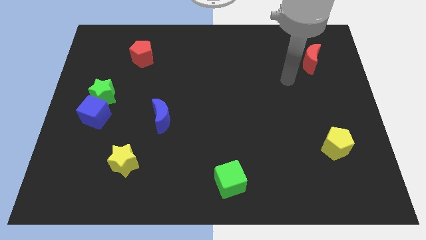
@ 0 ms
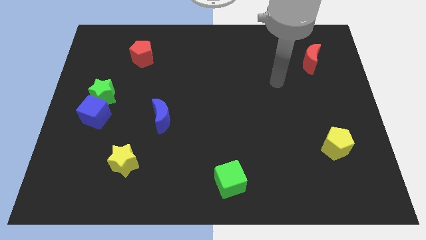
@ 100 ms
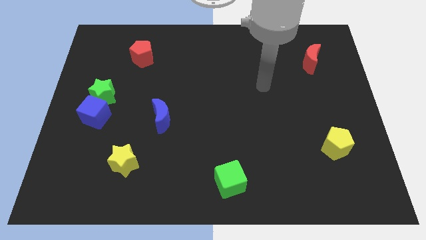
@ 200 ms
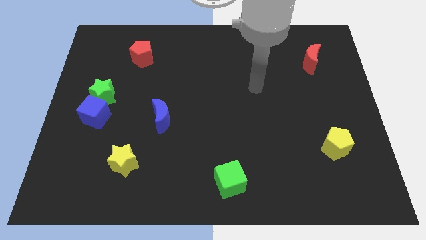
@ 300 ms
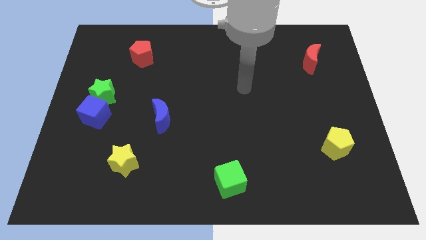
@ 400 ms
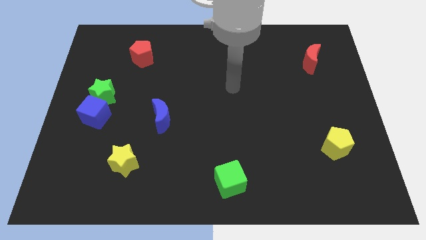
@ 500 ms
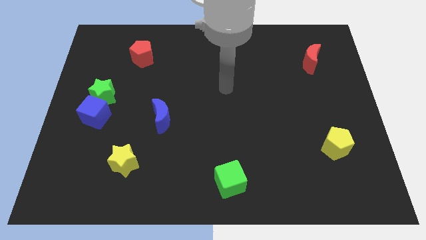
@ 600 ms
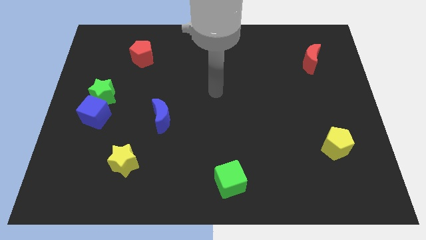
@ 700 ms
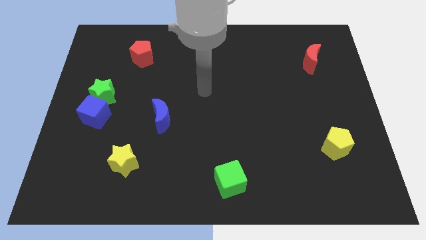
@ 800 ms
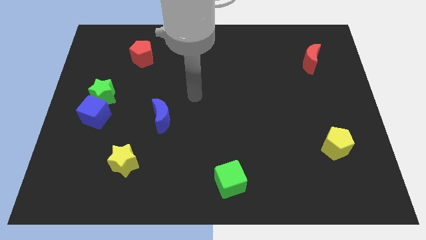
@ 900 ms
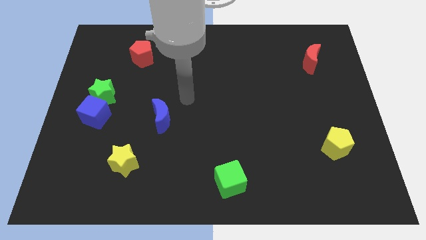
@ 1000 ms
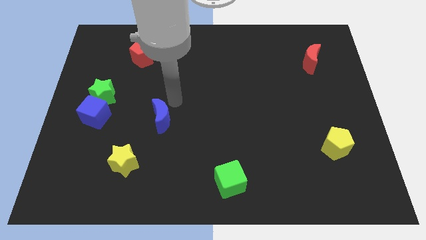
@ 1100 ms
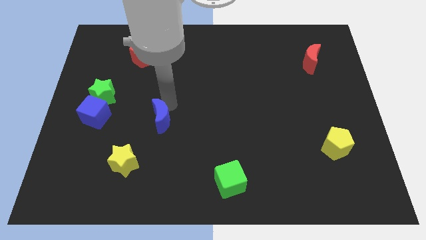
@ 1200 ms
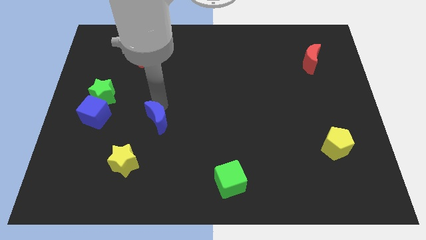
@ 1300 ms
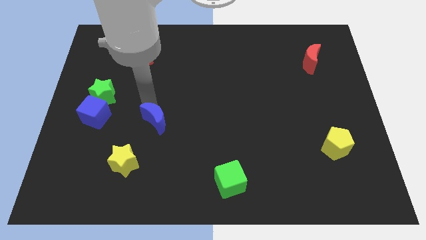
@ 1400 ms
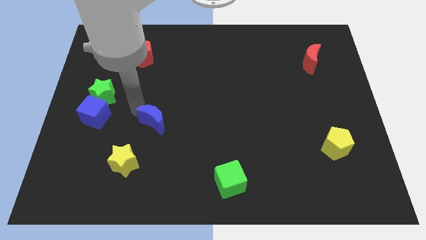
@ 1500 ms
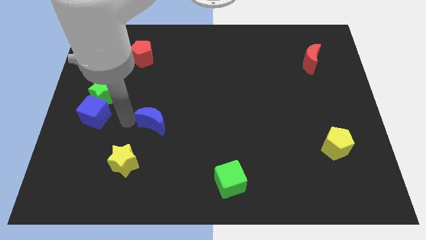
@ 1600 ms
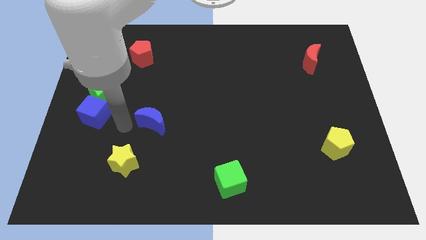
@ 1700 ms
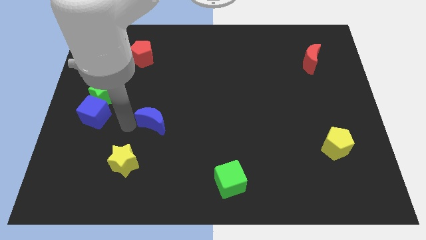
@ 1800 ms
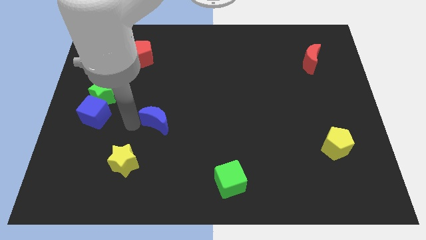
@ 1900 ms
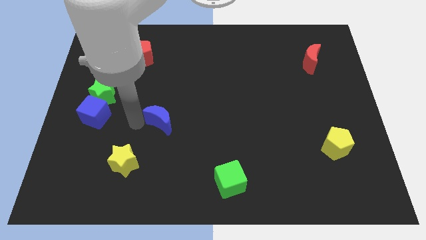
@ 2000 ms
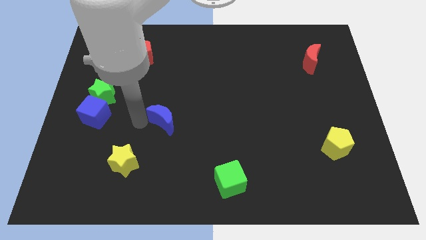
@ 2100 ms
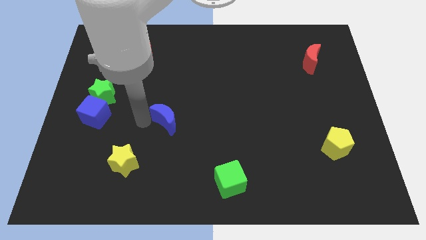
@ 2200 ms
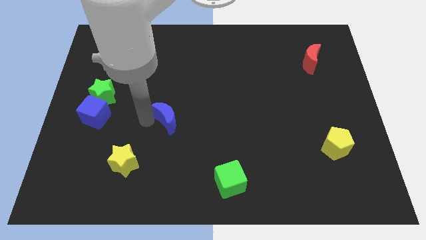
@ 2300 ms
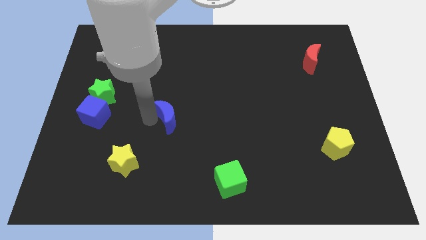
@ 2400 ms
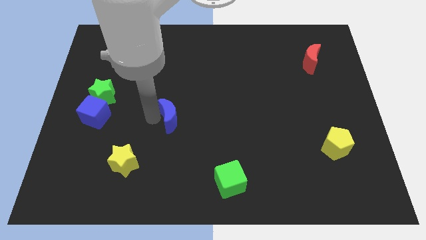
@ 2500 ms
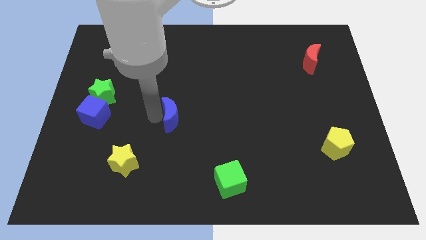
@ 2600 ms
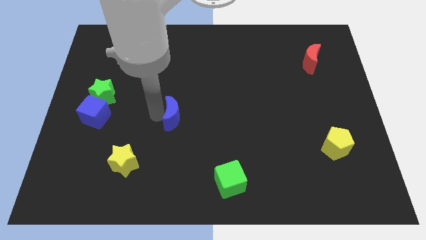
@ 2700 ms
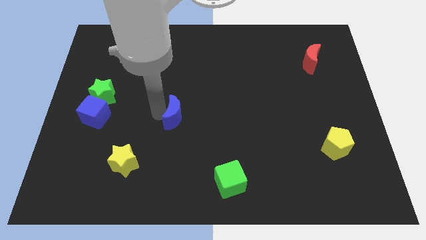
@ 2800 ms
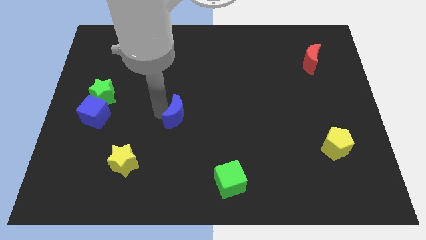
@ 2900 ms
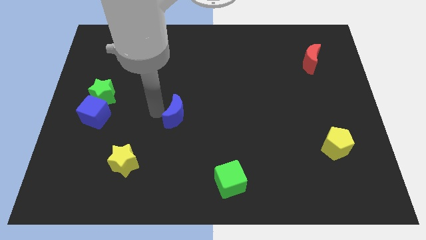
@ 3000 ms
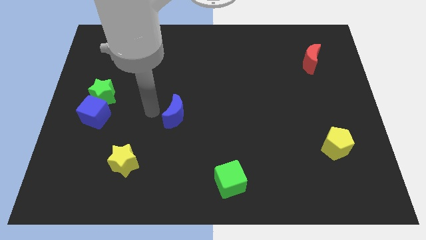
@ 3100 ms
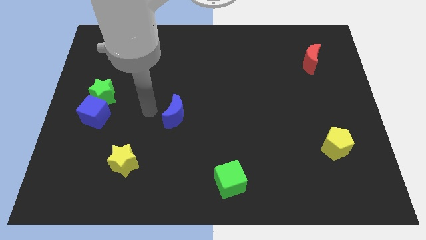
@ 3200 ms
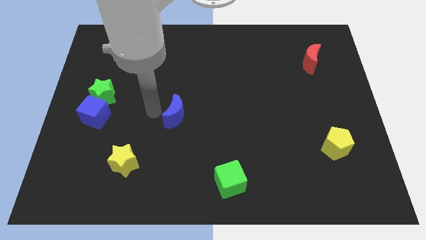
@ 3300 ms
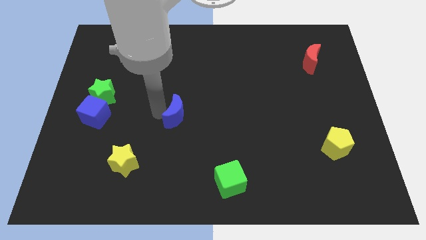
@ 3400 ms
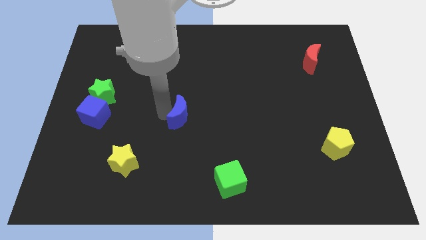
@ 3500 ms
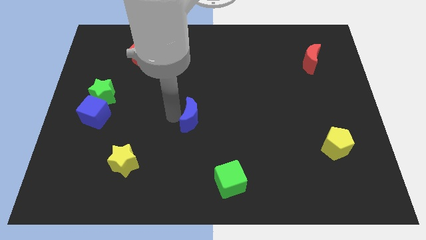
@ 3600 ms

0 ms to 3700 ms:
slightly slide the blue moon to the right

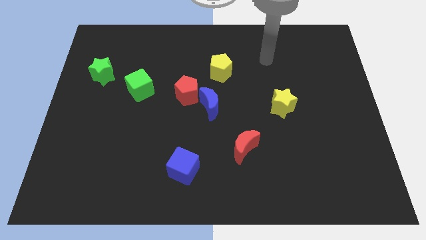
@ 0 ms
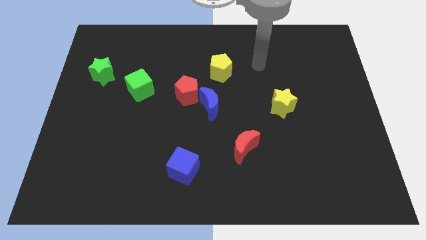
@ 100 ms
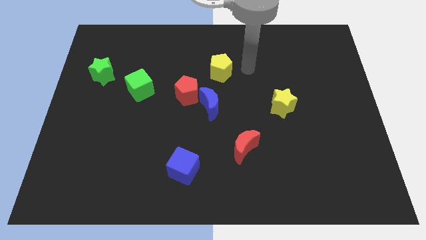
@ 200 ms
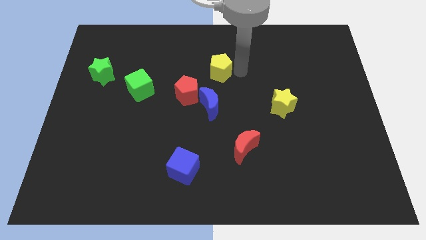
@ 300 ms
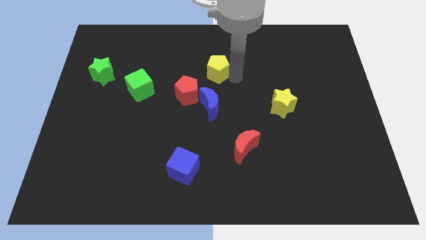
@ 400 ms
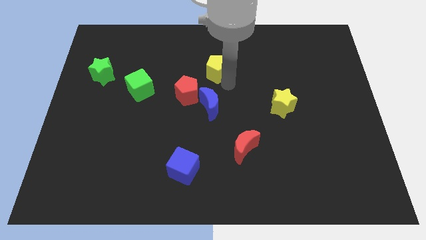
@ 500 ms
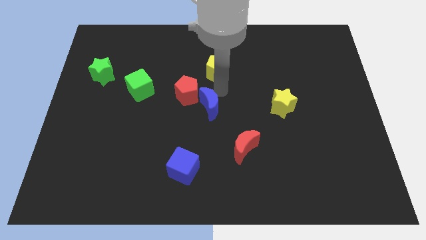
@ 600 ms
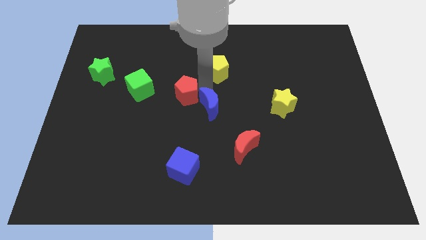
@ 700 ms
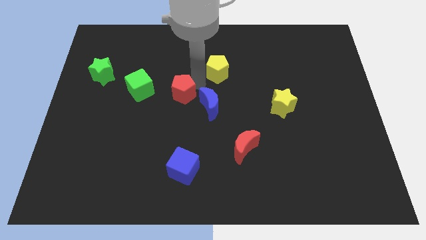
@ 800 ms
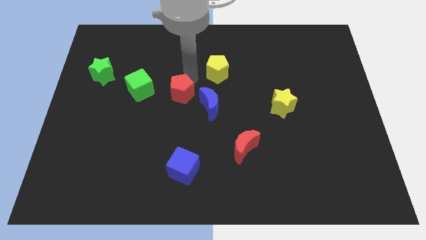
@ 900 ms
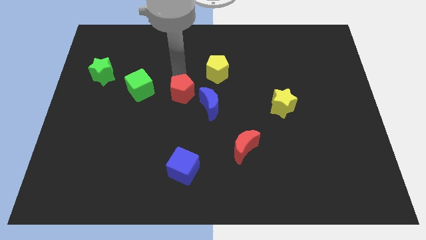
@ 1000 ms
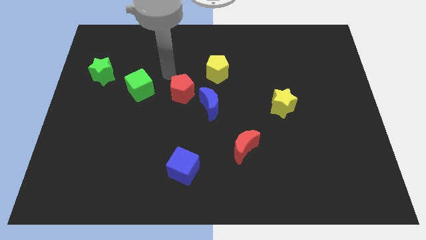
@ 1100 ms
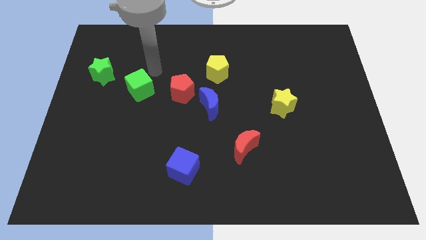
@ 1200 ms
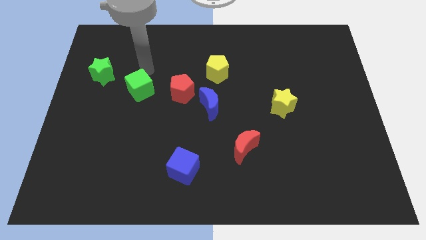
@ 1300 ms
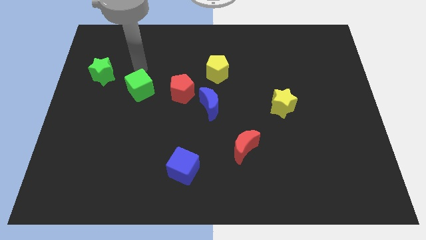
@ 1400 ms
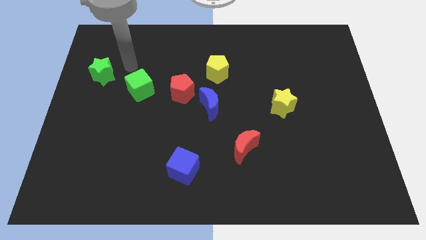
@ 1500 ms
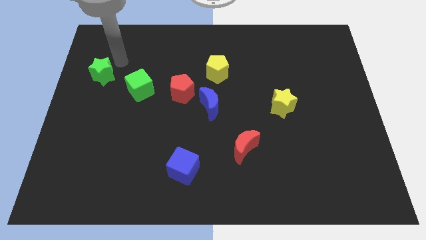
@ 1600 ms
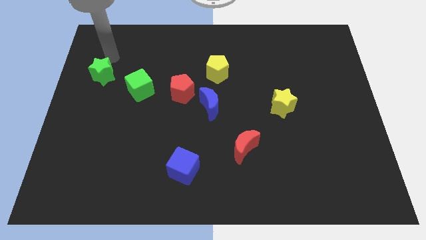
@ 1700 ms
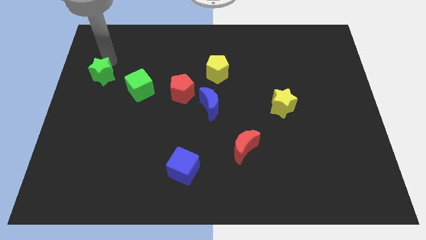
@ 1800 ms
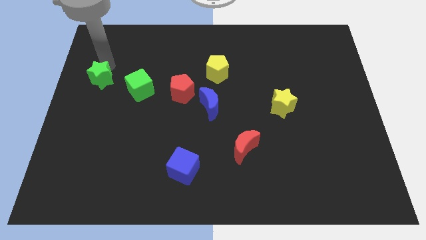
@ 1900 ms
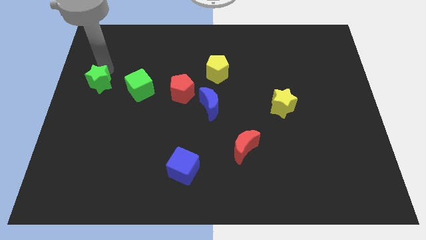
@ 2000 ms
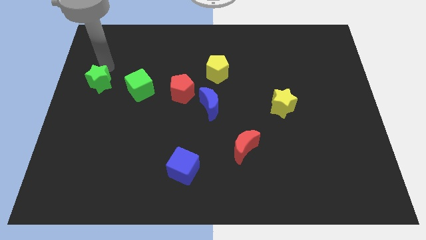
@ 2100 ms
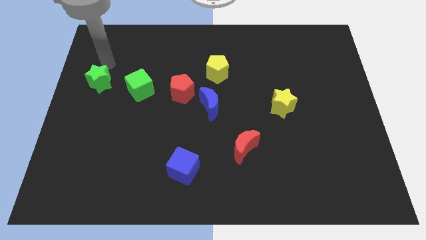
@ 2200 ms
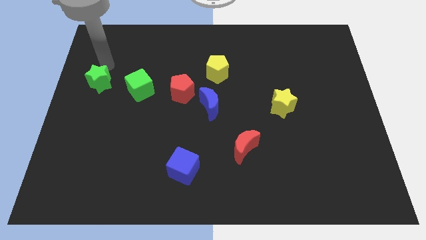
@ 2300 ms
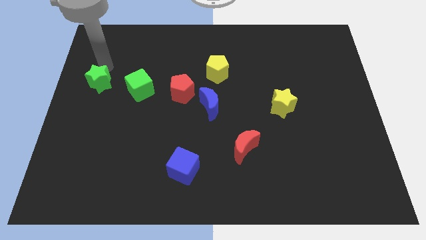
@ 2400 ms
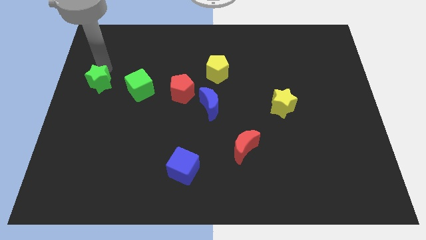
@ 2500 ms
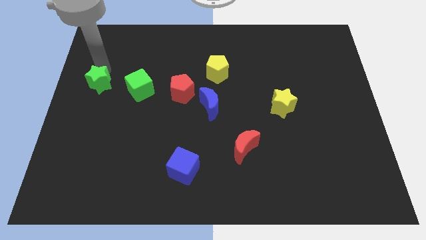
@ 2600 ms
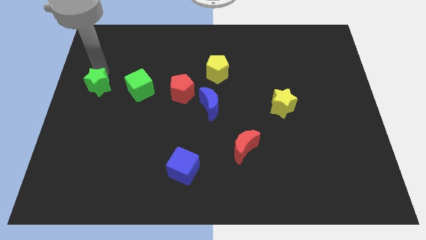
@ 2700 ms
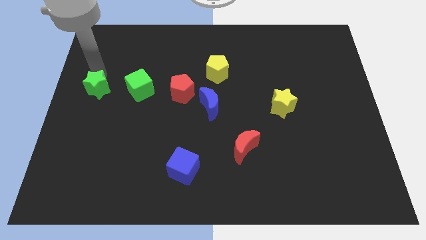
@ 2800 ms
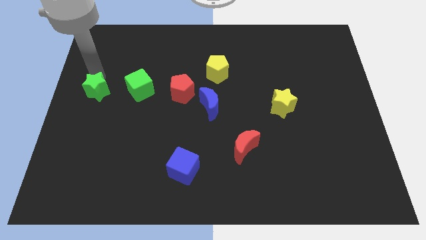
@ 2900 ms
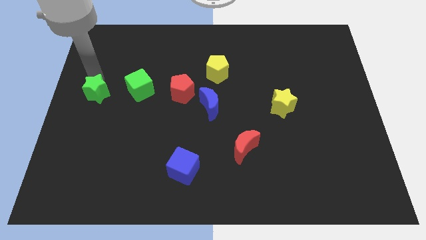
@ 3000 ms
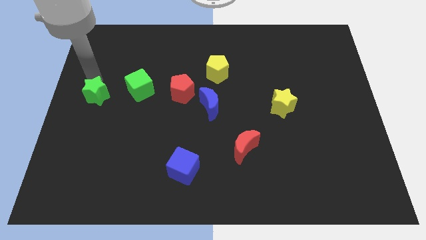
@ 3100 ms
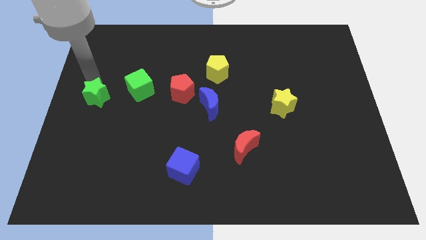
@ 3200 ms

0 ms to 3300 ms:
move the green star downwards a little

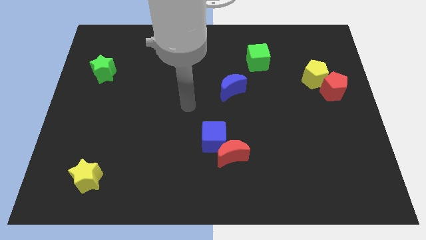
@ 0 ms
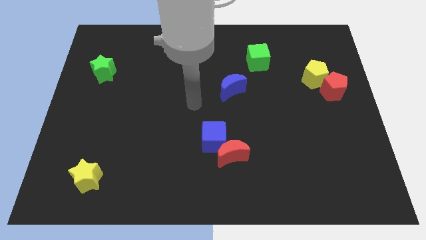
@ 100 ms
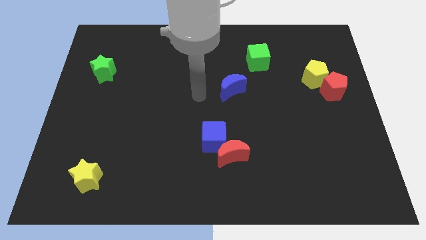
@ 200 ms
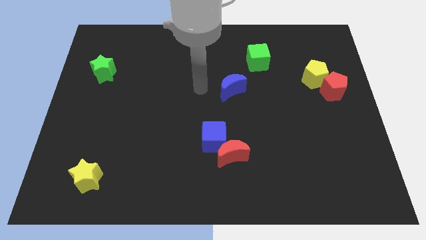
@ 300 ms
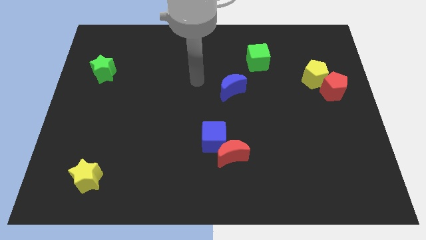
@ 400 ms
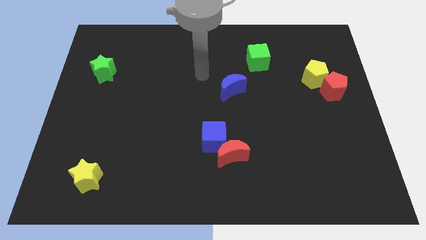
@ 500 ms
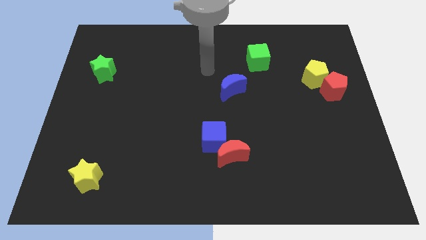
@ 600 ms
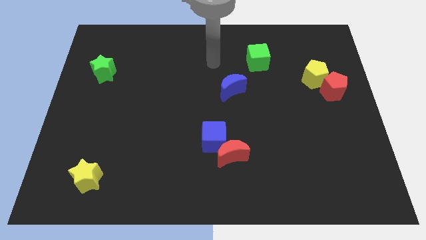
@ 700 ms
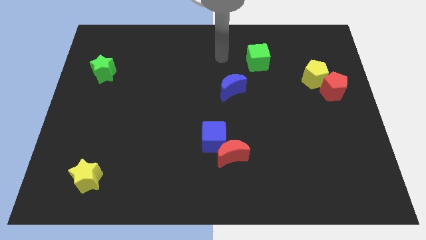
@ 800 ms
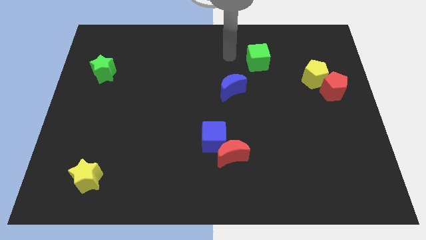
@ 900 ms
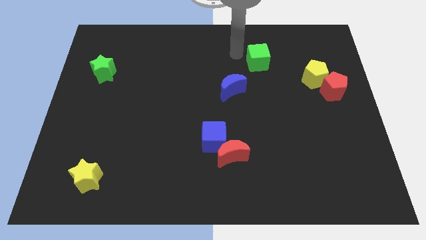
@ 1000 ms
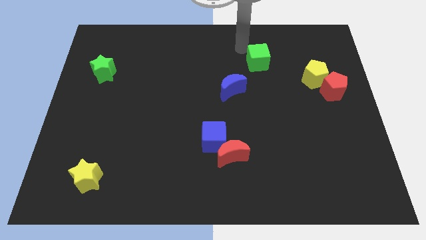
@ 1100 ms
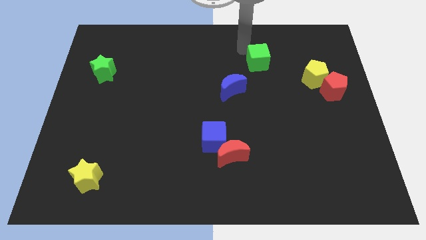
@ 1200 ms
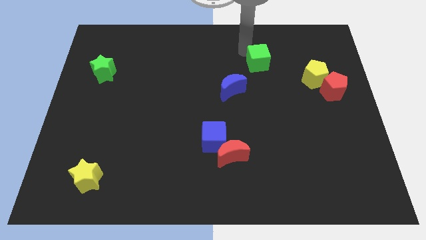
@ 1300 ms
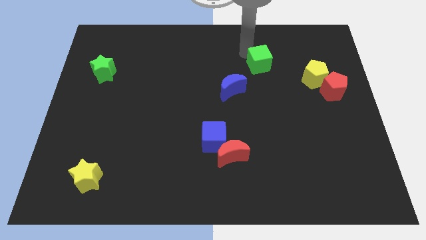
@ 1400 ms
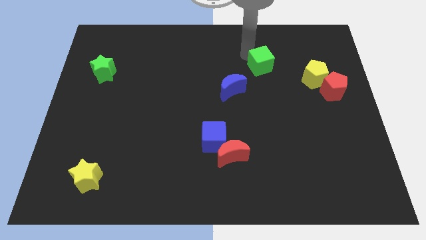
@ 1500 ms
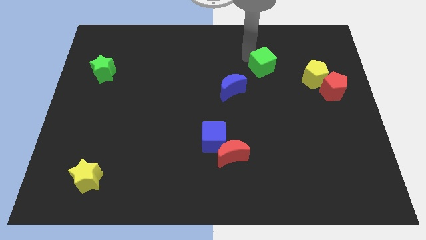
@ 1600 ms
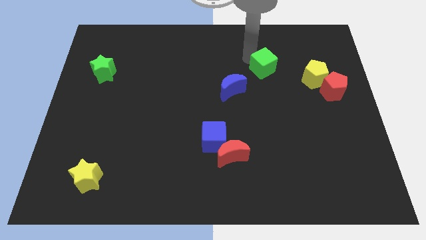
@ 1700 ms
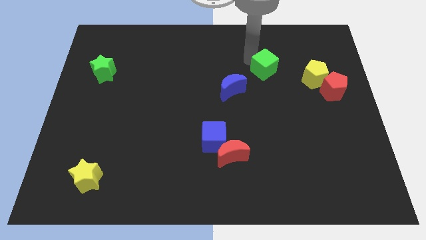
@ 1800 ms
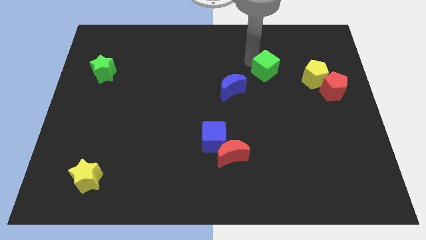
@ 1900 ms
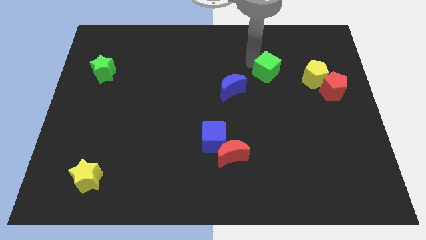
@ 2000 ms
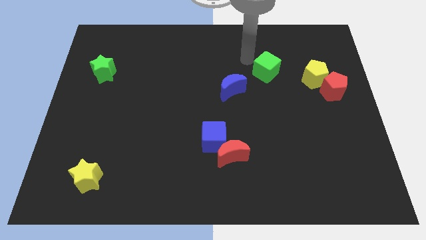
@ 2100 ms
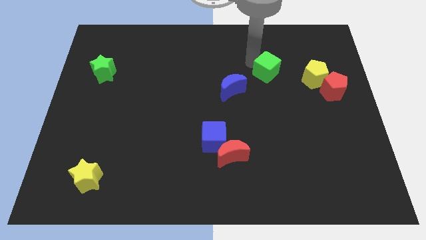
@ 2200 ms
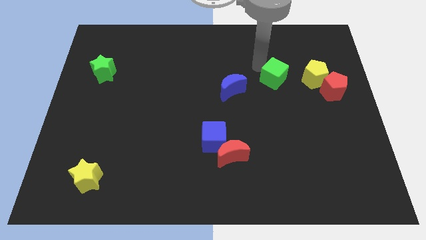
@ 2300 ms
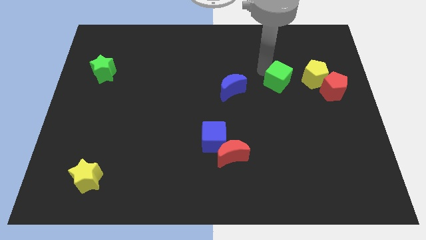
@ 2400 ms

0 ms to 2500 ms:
slide the green cube downwards and then right a bit
